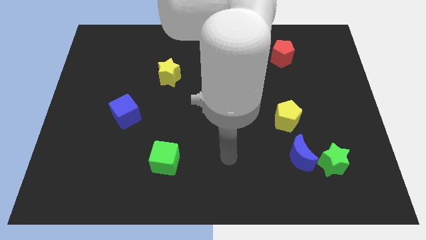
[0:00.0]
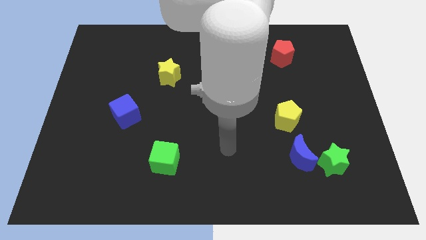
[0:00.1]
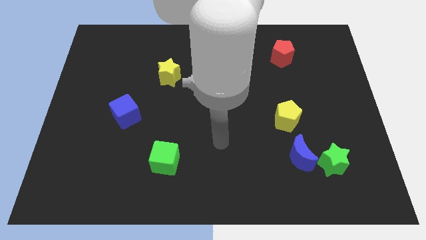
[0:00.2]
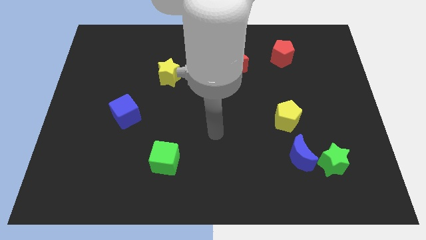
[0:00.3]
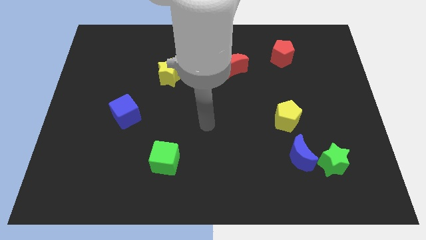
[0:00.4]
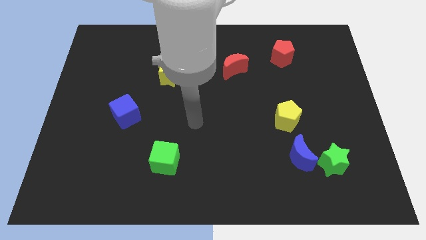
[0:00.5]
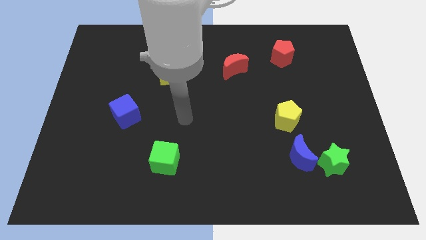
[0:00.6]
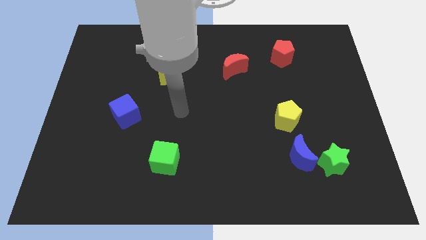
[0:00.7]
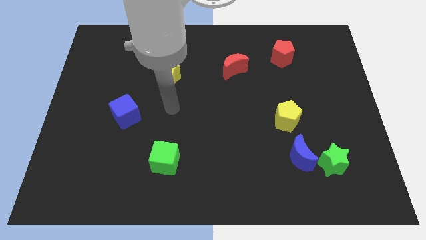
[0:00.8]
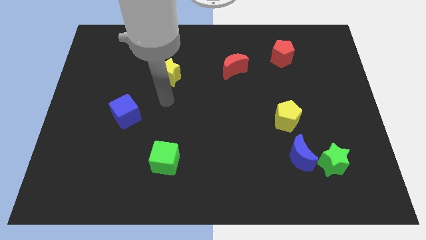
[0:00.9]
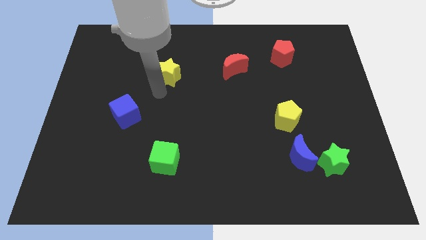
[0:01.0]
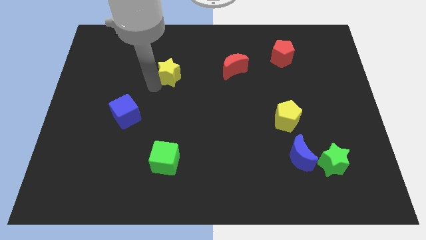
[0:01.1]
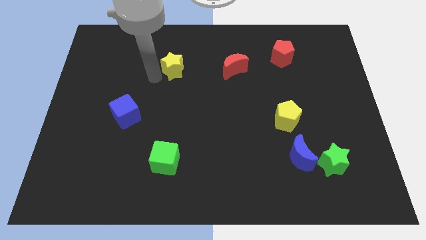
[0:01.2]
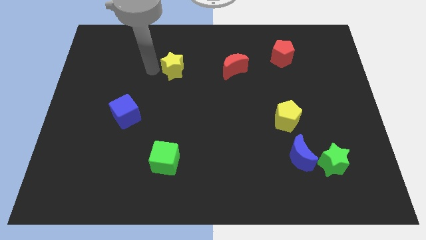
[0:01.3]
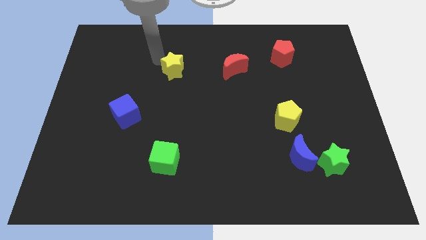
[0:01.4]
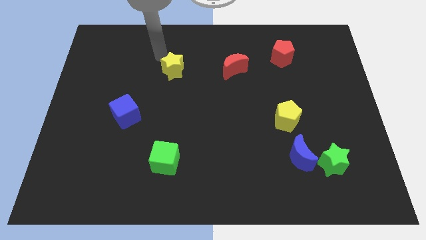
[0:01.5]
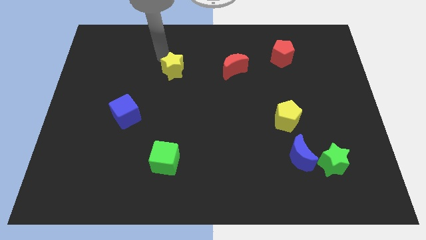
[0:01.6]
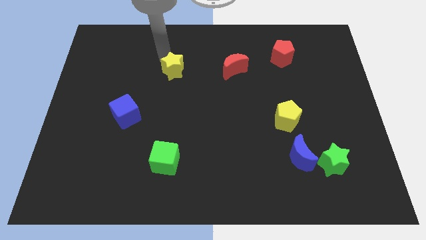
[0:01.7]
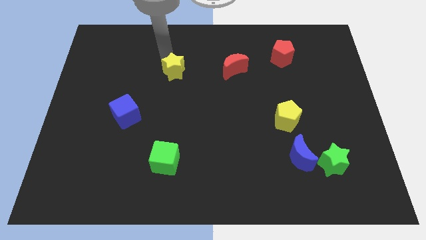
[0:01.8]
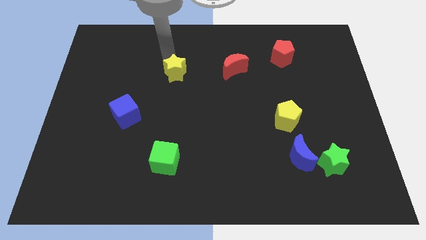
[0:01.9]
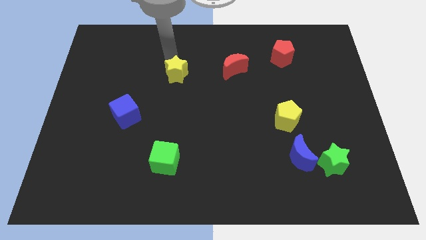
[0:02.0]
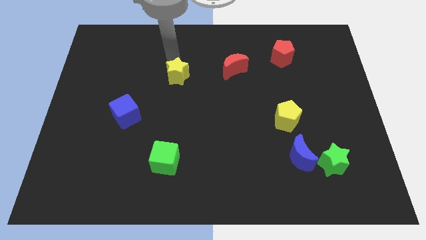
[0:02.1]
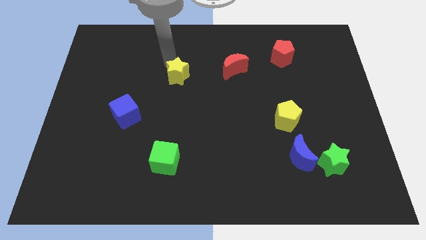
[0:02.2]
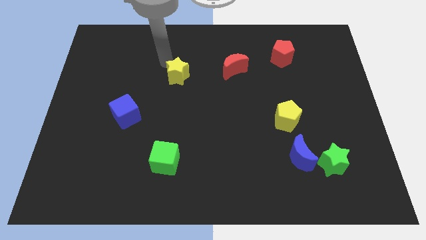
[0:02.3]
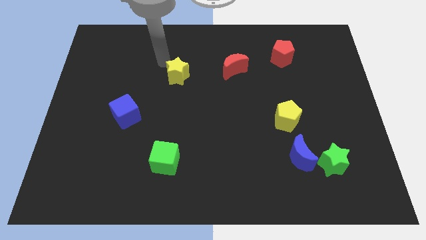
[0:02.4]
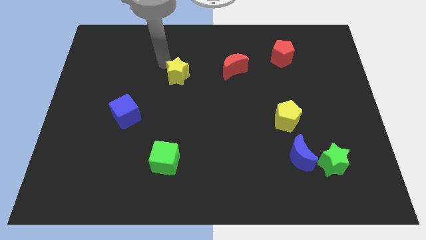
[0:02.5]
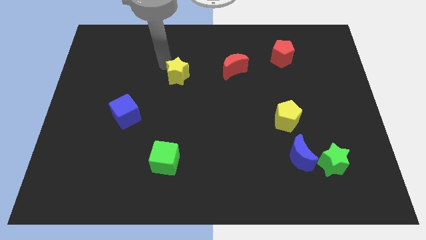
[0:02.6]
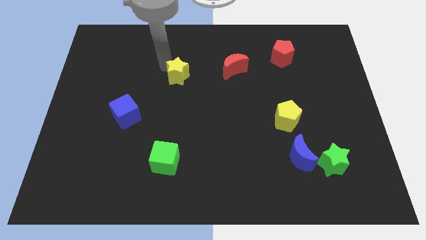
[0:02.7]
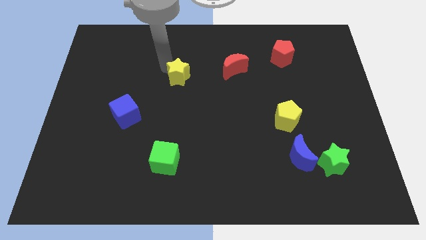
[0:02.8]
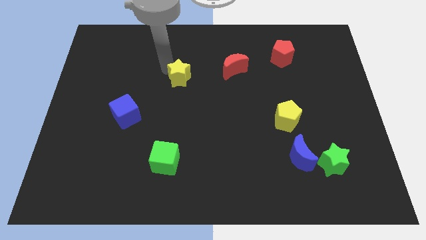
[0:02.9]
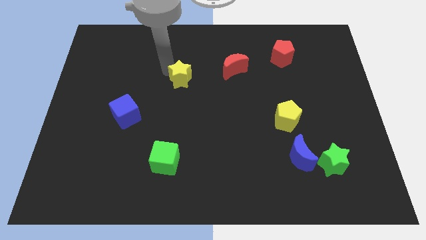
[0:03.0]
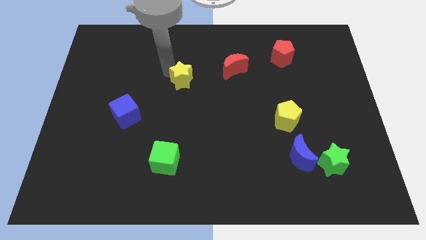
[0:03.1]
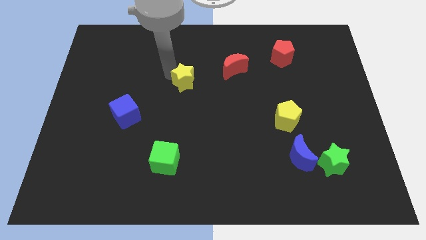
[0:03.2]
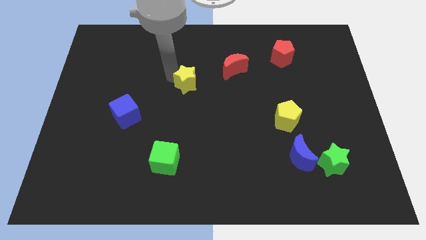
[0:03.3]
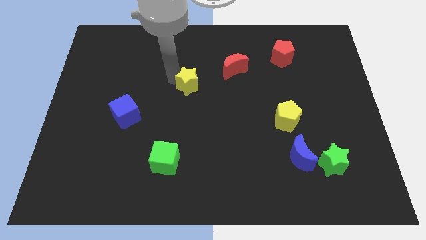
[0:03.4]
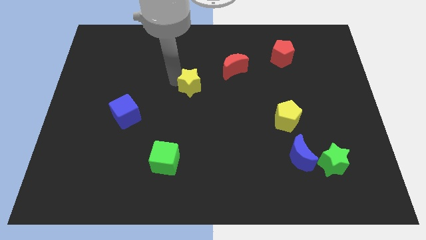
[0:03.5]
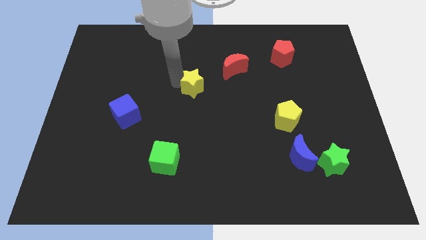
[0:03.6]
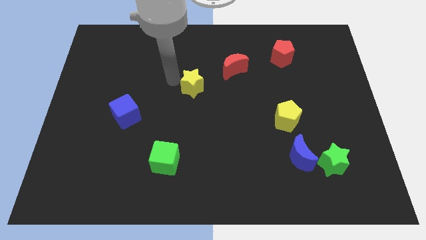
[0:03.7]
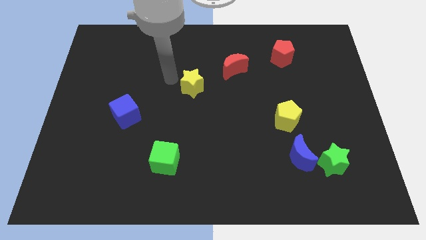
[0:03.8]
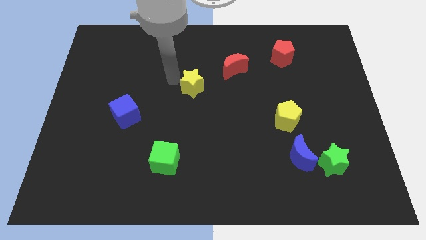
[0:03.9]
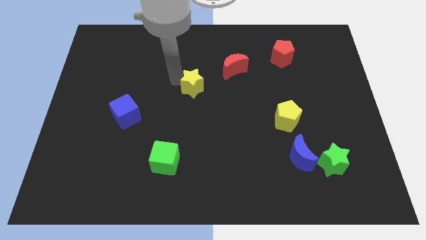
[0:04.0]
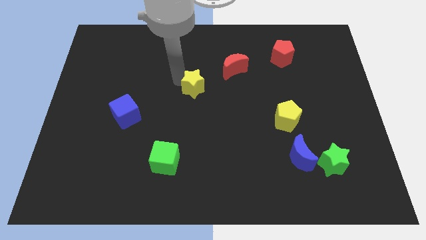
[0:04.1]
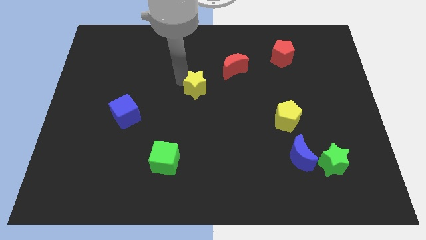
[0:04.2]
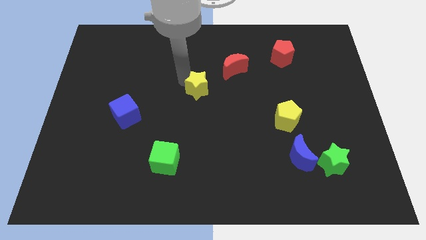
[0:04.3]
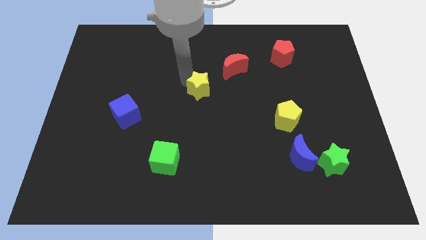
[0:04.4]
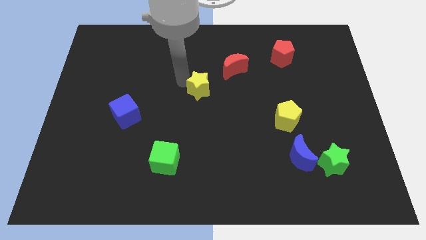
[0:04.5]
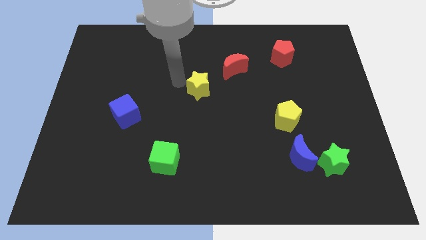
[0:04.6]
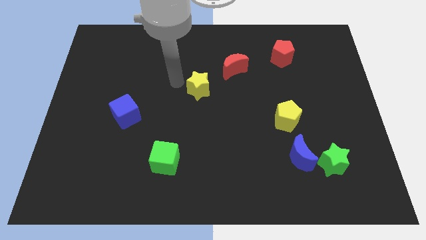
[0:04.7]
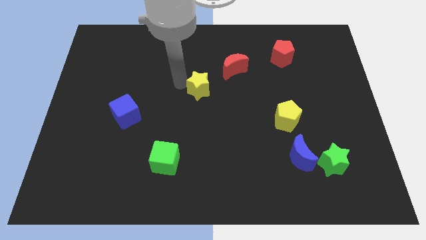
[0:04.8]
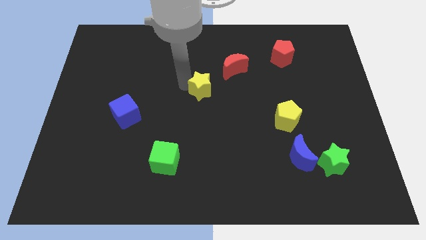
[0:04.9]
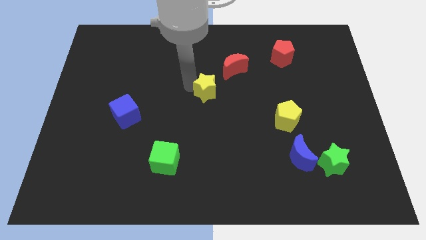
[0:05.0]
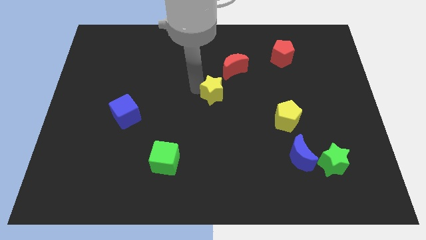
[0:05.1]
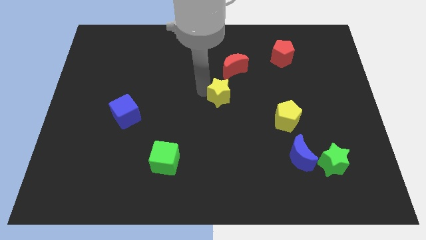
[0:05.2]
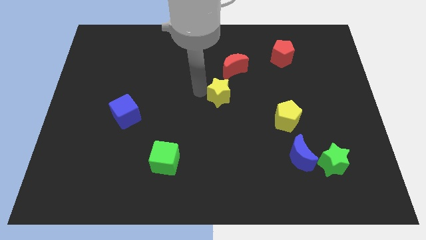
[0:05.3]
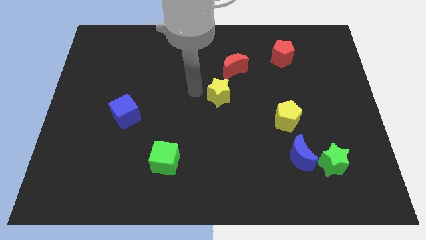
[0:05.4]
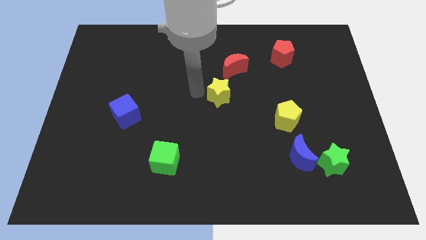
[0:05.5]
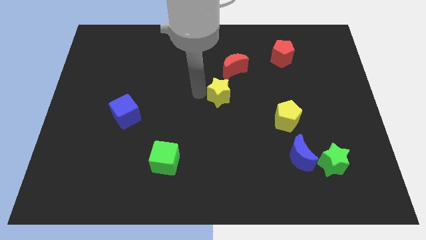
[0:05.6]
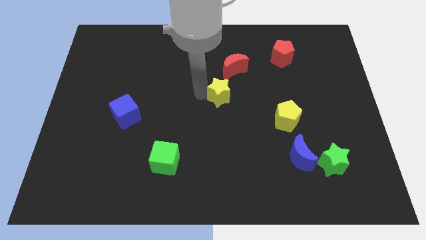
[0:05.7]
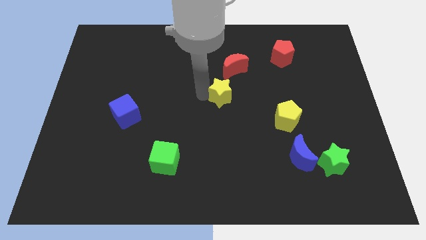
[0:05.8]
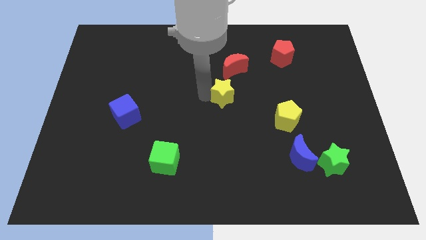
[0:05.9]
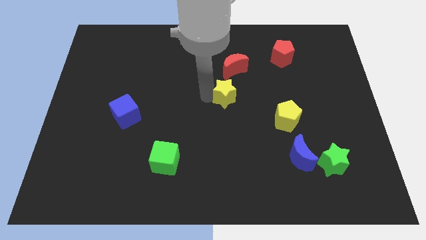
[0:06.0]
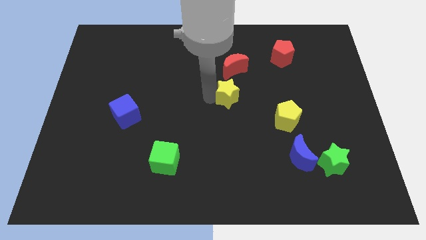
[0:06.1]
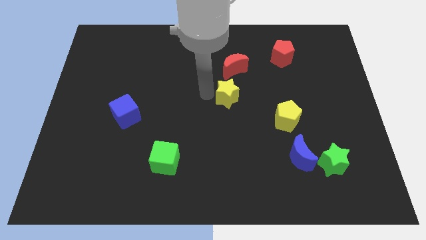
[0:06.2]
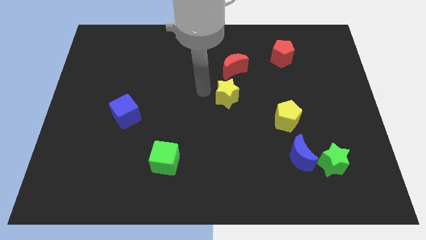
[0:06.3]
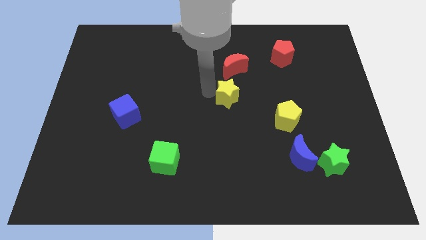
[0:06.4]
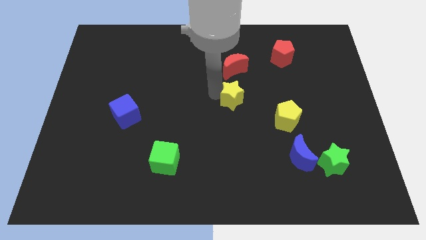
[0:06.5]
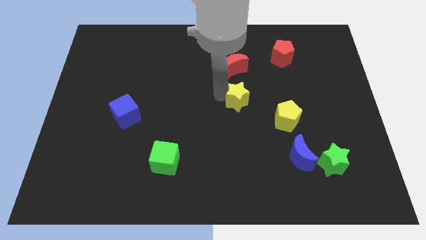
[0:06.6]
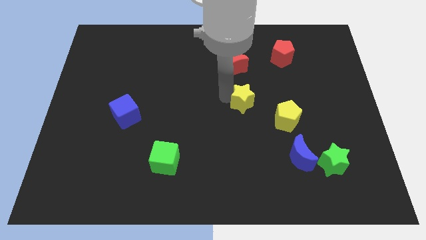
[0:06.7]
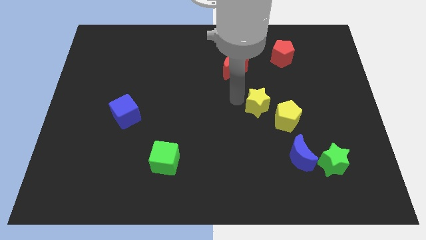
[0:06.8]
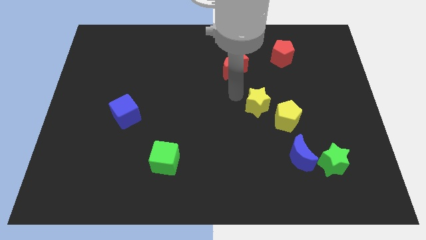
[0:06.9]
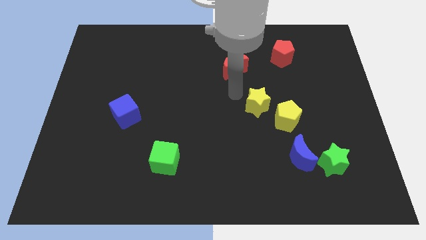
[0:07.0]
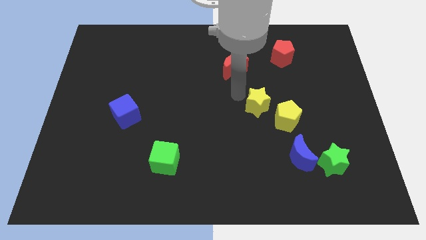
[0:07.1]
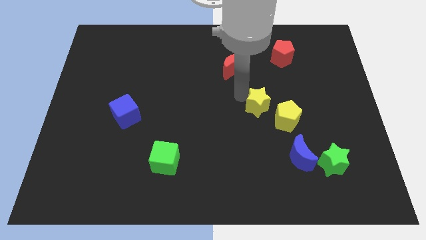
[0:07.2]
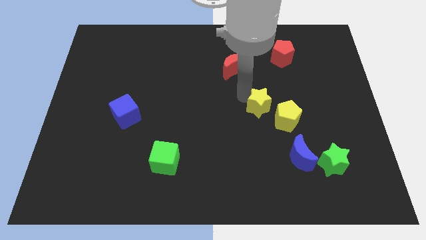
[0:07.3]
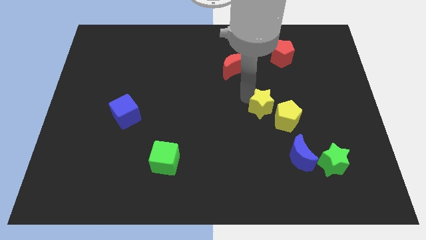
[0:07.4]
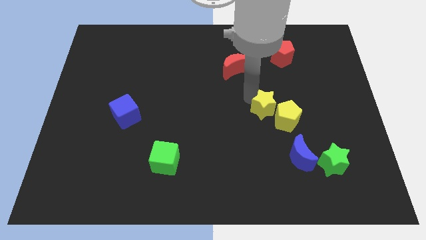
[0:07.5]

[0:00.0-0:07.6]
put the yellow star close to the yellow pentagon
